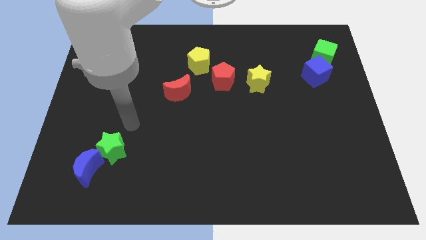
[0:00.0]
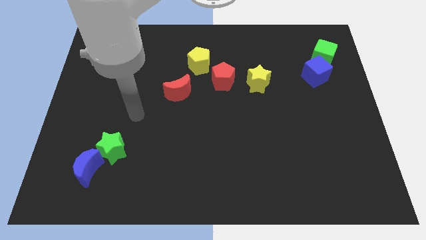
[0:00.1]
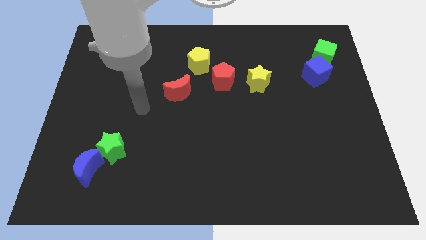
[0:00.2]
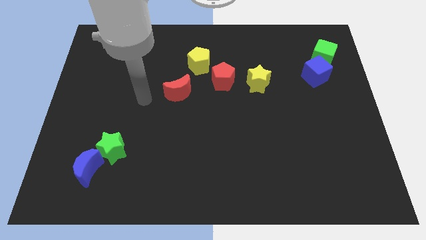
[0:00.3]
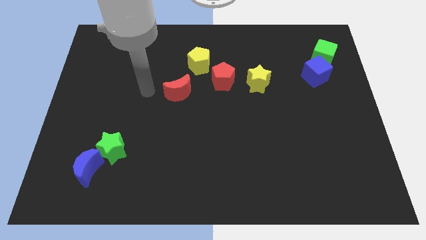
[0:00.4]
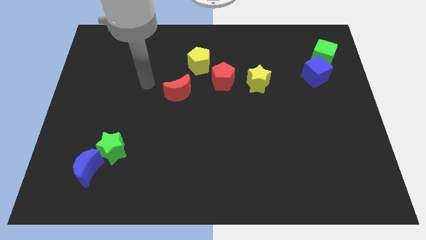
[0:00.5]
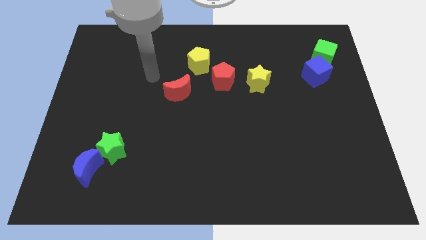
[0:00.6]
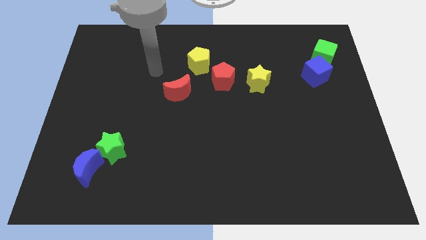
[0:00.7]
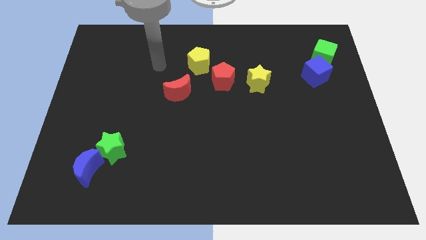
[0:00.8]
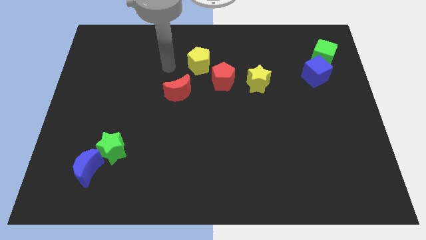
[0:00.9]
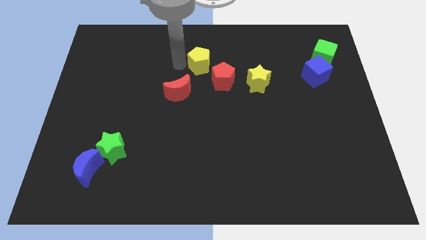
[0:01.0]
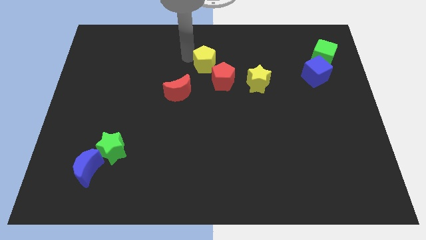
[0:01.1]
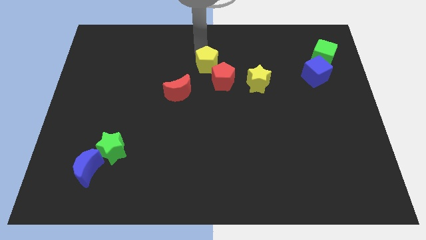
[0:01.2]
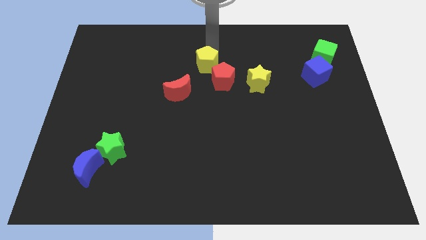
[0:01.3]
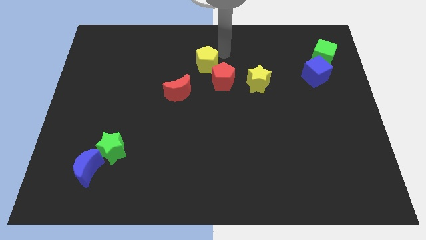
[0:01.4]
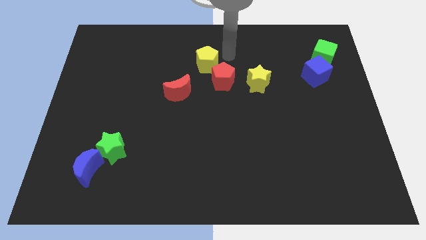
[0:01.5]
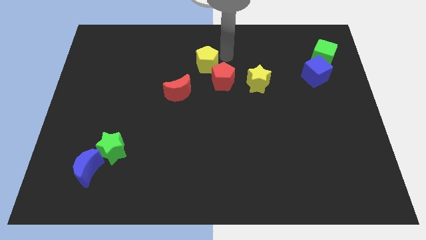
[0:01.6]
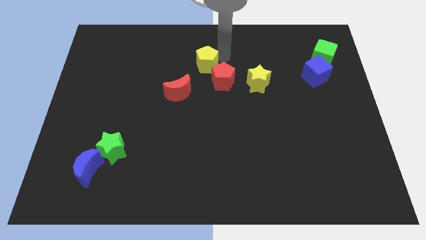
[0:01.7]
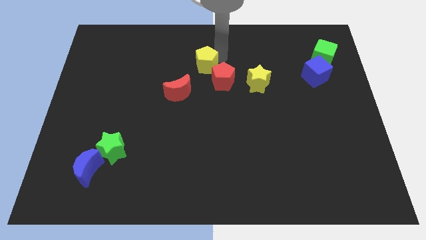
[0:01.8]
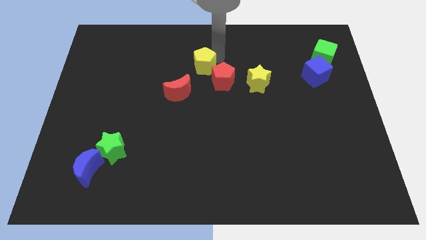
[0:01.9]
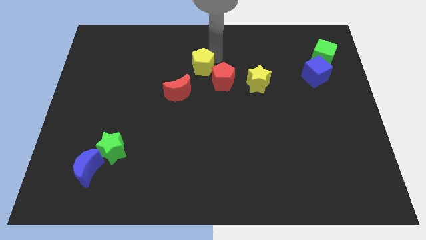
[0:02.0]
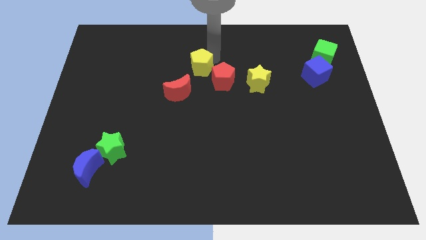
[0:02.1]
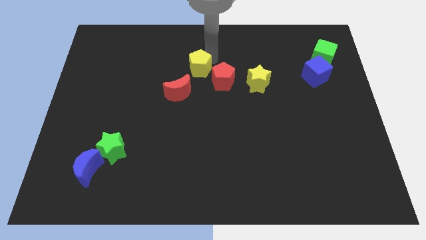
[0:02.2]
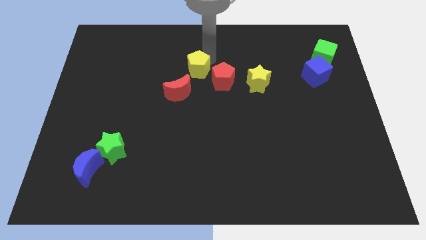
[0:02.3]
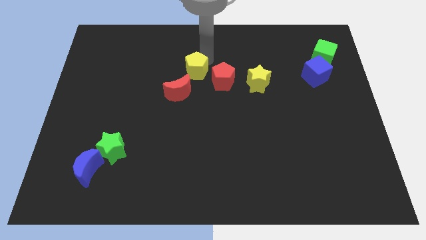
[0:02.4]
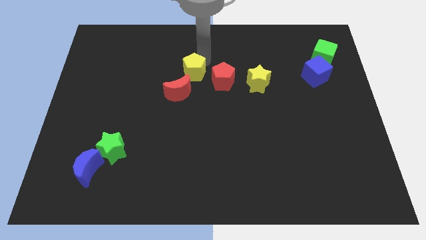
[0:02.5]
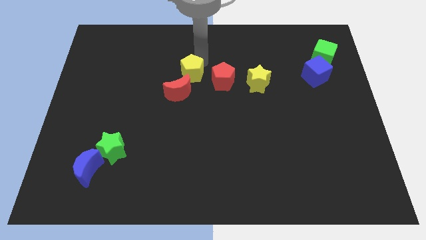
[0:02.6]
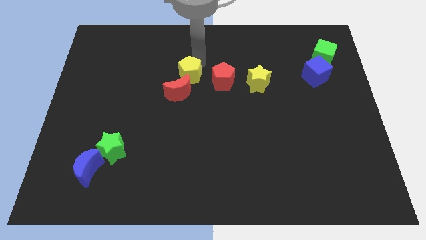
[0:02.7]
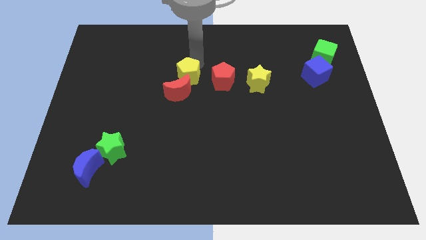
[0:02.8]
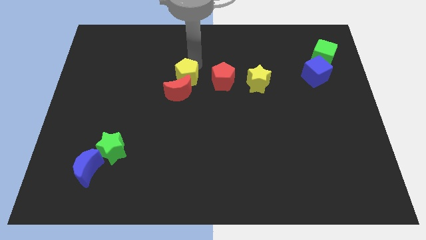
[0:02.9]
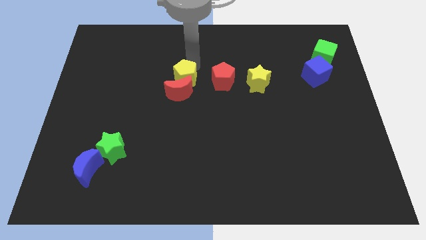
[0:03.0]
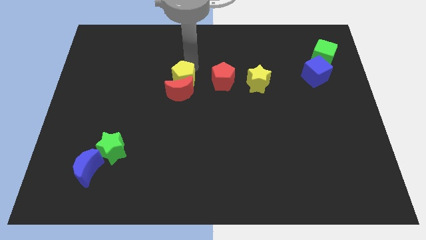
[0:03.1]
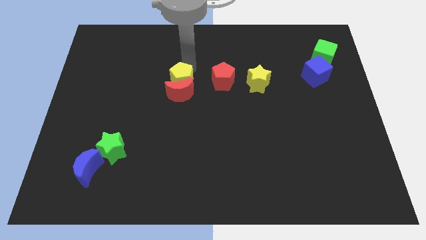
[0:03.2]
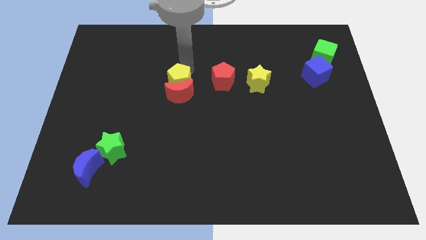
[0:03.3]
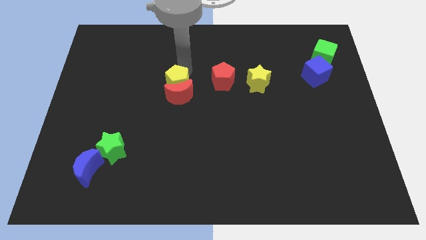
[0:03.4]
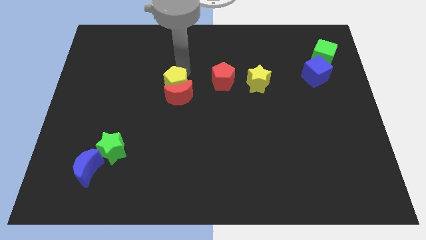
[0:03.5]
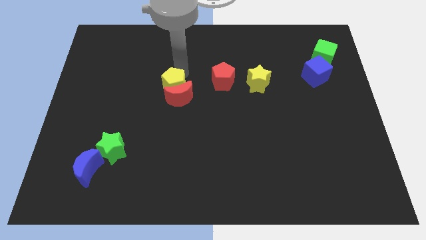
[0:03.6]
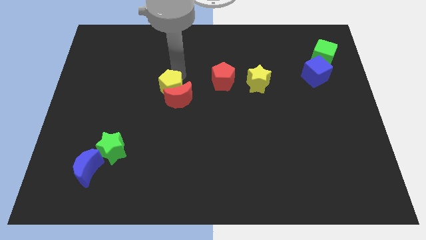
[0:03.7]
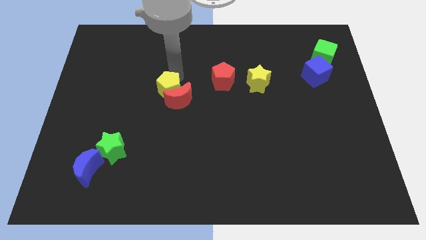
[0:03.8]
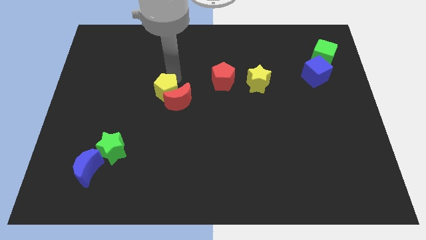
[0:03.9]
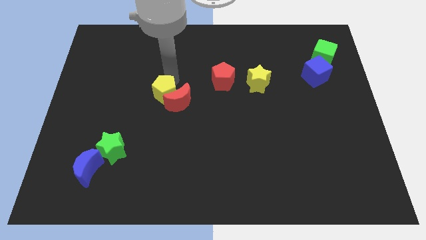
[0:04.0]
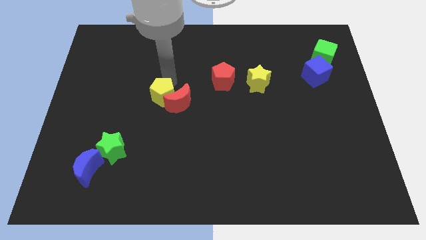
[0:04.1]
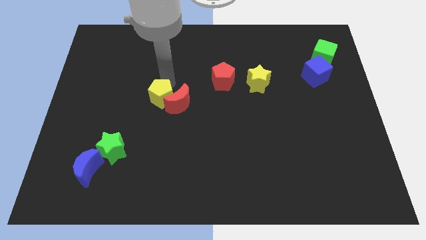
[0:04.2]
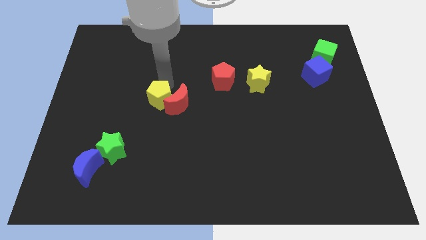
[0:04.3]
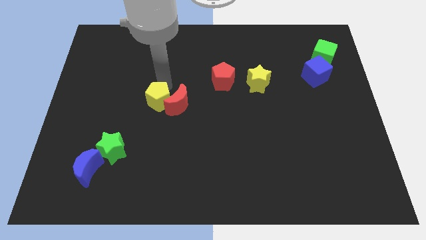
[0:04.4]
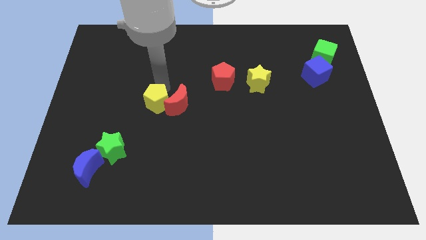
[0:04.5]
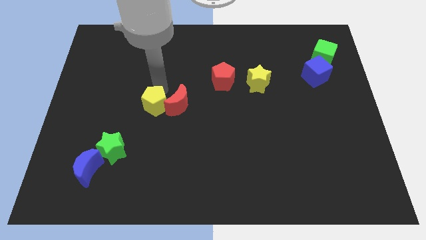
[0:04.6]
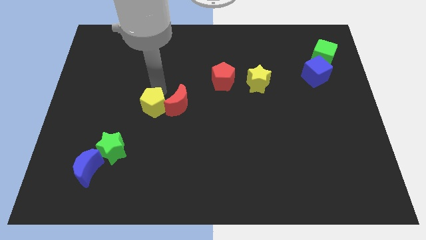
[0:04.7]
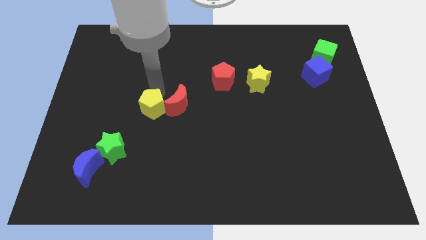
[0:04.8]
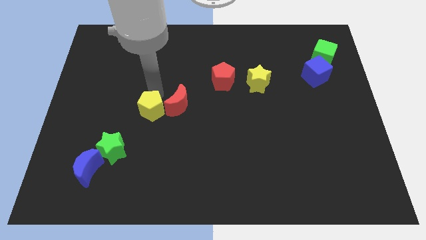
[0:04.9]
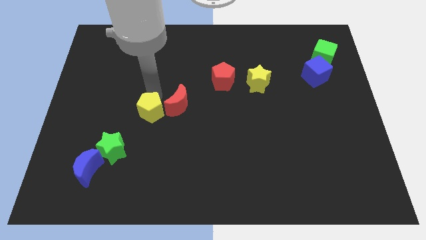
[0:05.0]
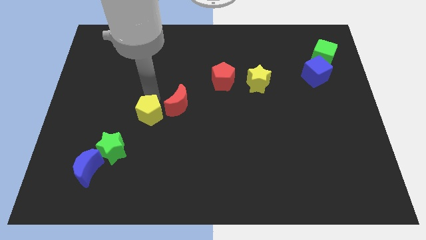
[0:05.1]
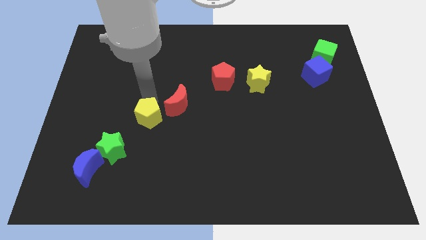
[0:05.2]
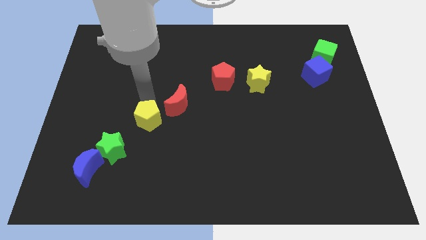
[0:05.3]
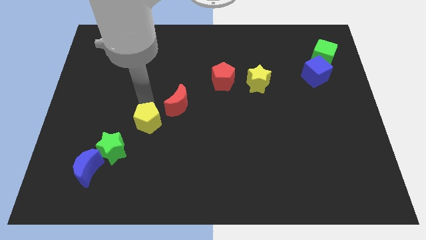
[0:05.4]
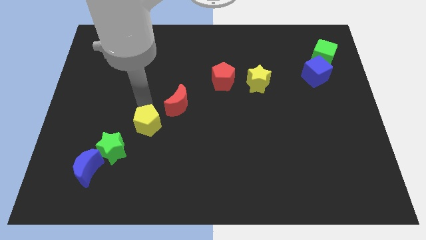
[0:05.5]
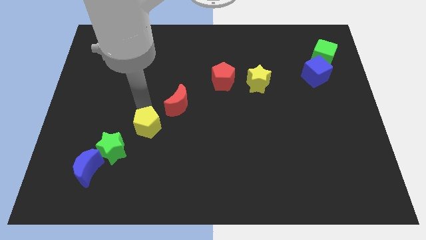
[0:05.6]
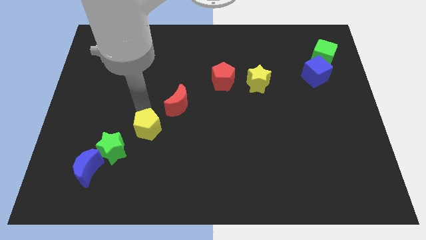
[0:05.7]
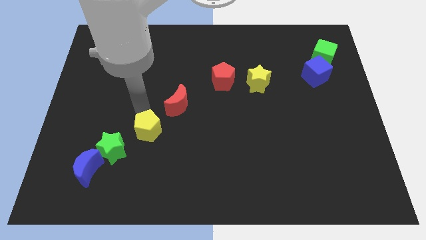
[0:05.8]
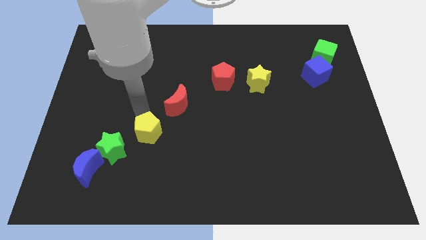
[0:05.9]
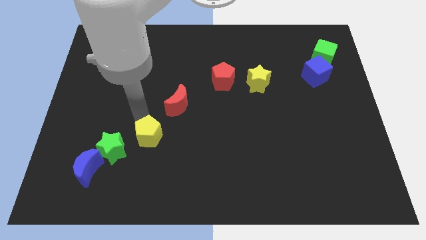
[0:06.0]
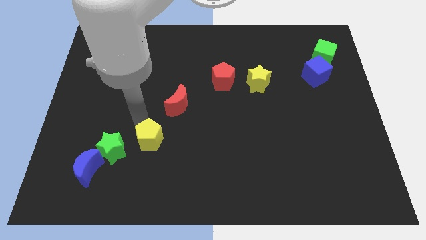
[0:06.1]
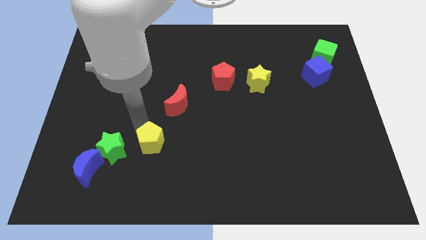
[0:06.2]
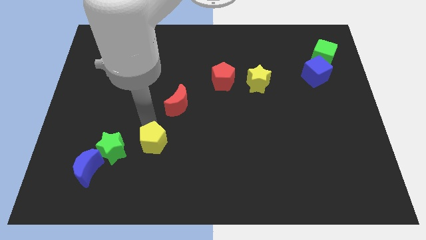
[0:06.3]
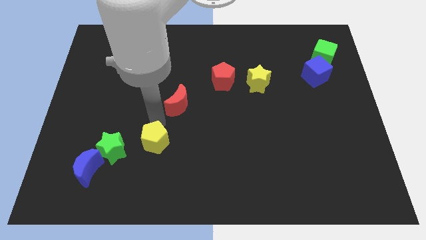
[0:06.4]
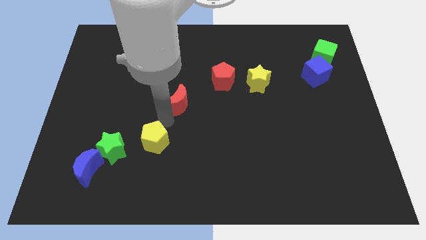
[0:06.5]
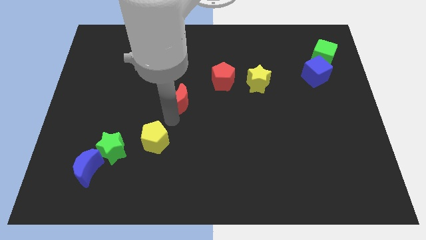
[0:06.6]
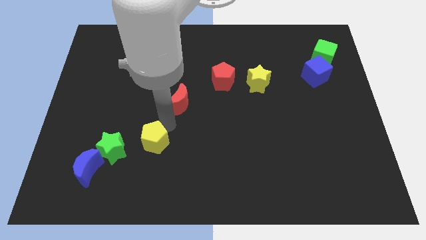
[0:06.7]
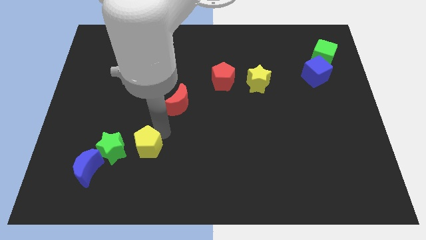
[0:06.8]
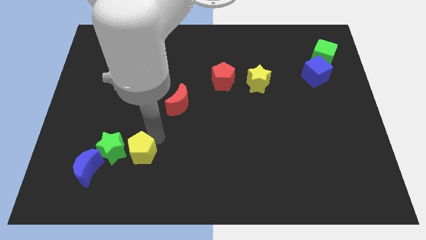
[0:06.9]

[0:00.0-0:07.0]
move the yellow pentagon diagonally down and to the right of the green star
